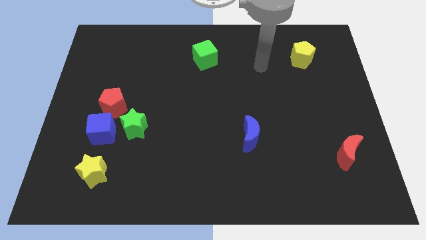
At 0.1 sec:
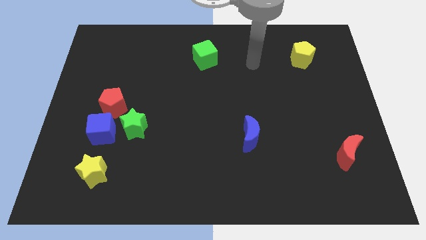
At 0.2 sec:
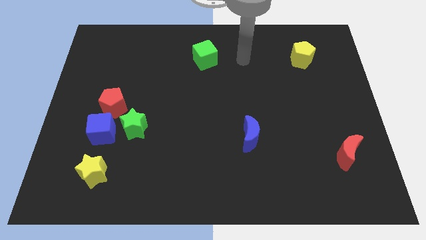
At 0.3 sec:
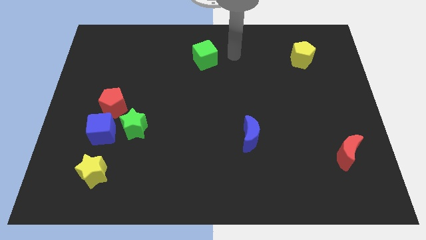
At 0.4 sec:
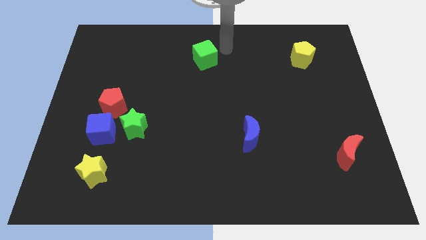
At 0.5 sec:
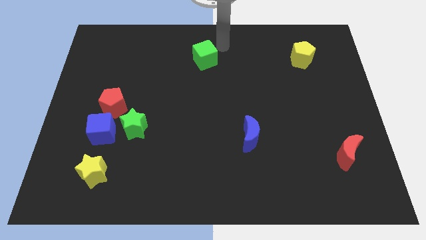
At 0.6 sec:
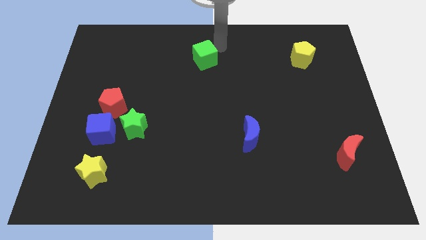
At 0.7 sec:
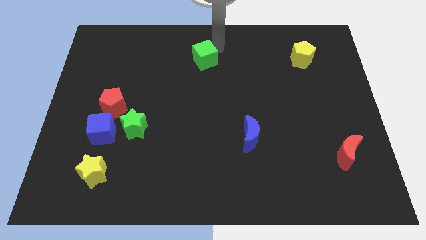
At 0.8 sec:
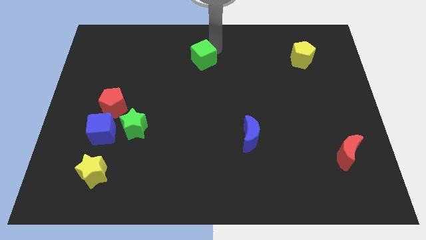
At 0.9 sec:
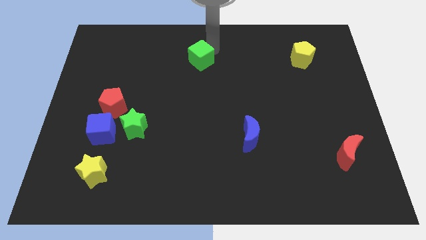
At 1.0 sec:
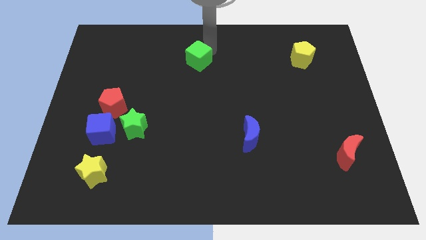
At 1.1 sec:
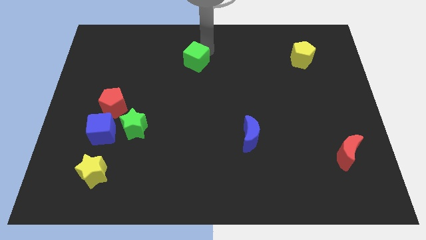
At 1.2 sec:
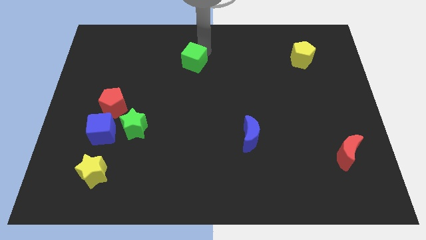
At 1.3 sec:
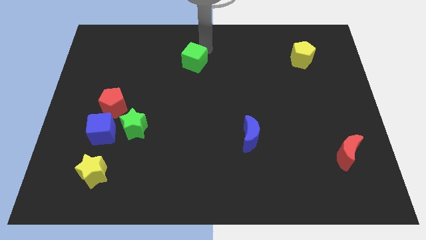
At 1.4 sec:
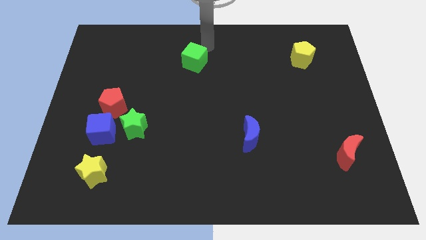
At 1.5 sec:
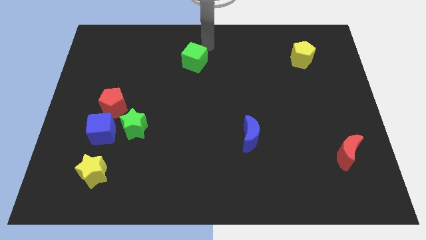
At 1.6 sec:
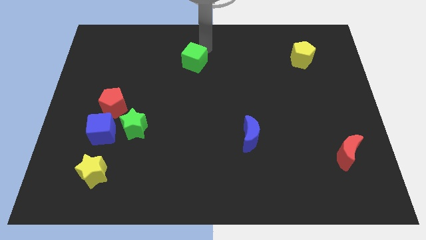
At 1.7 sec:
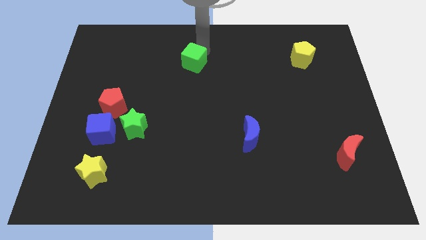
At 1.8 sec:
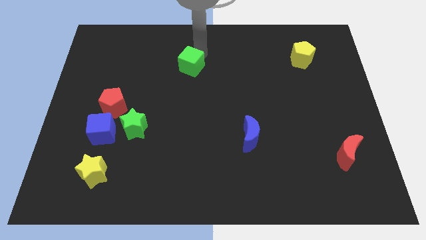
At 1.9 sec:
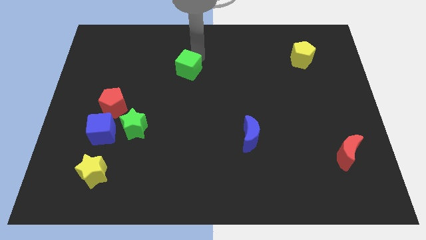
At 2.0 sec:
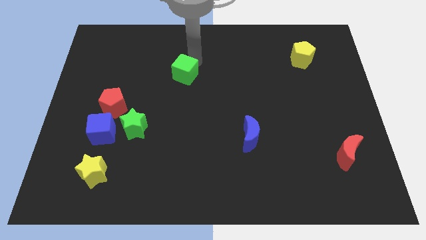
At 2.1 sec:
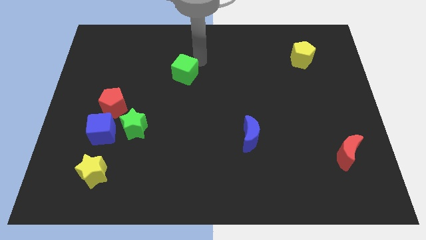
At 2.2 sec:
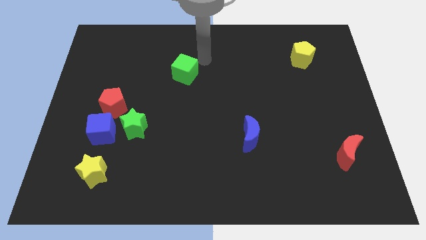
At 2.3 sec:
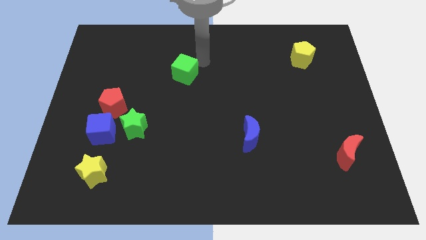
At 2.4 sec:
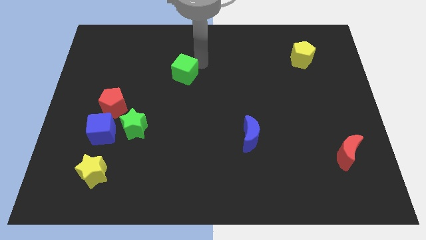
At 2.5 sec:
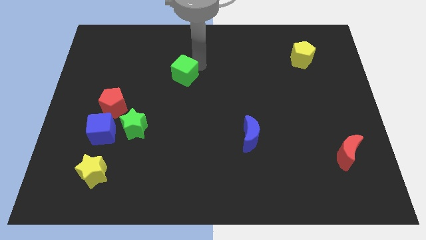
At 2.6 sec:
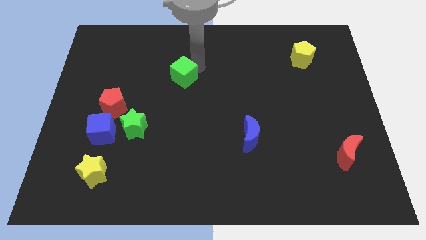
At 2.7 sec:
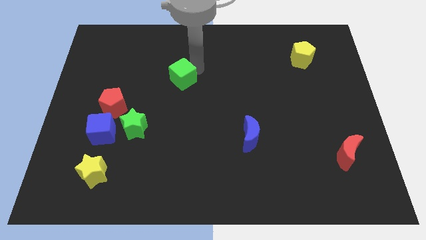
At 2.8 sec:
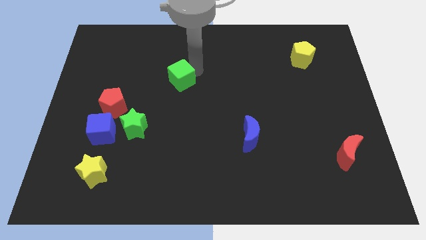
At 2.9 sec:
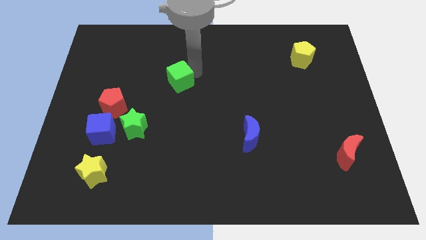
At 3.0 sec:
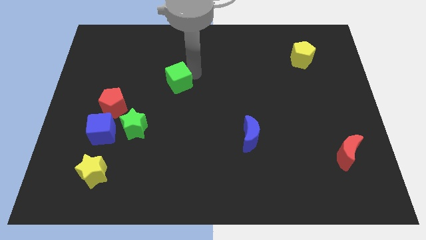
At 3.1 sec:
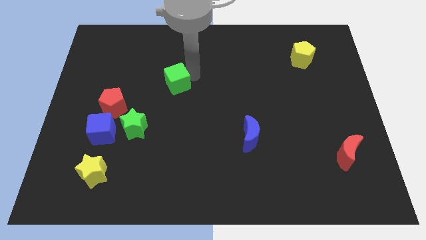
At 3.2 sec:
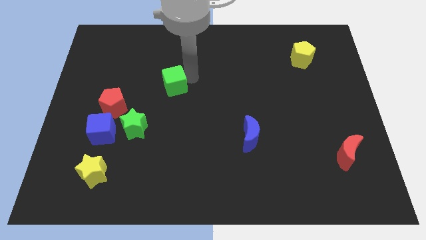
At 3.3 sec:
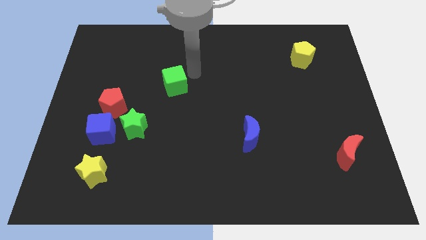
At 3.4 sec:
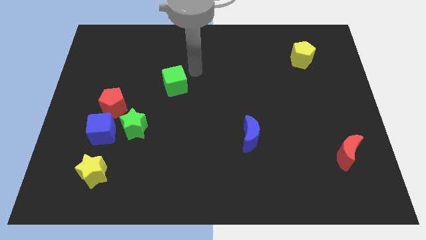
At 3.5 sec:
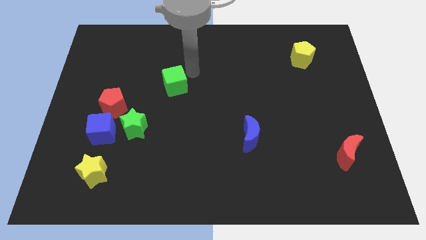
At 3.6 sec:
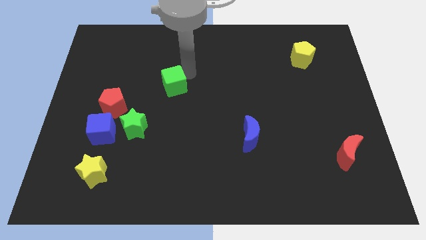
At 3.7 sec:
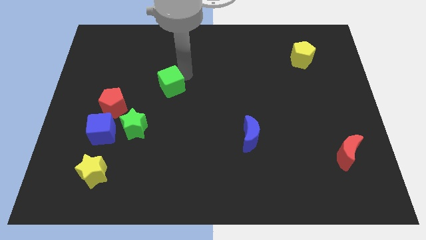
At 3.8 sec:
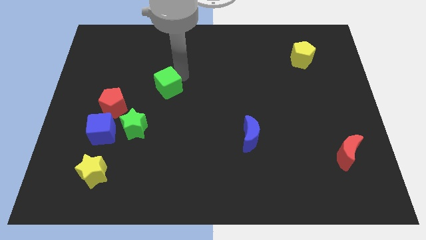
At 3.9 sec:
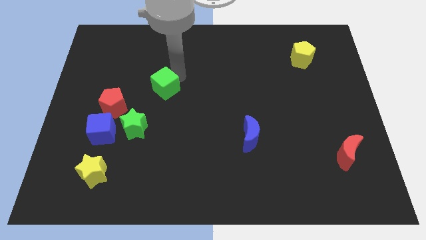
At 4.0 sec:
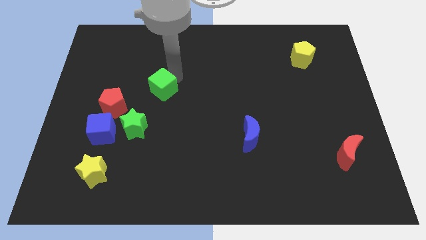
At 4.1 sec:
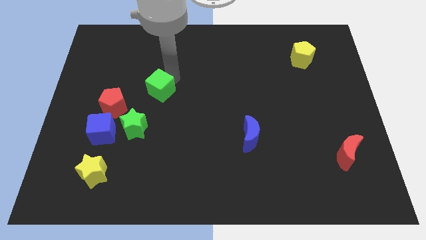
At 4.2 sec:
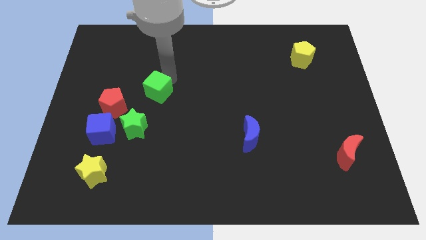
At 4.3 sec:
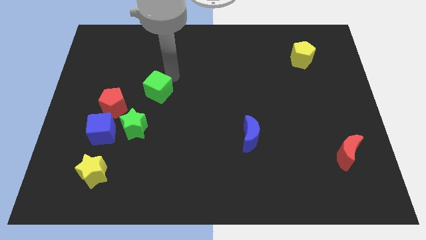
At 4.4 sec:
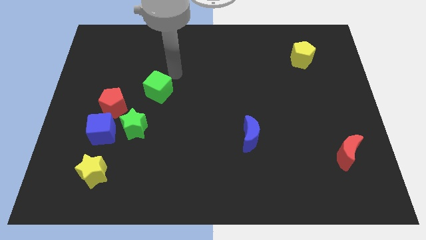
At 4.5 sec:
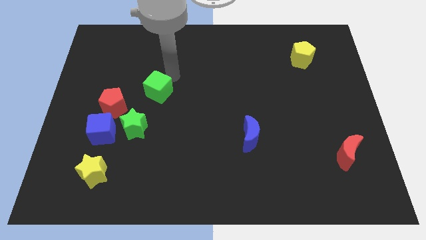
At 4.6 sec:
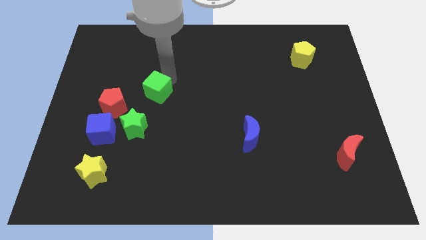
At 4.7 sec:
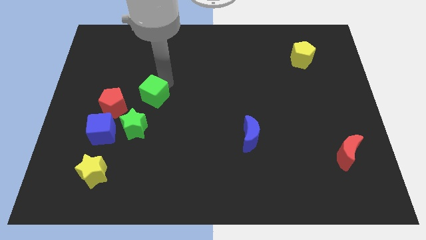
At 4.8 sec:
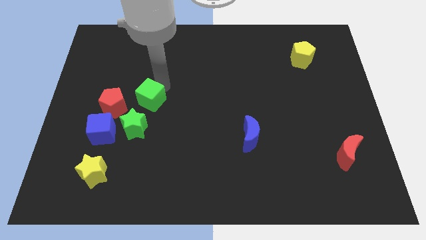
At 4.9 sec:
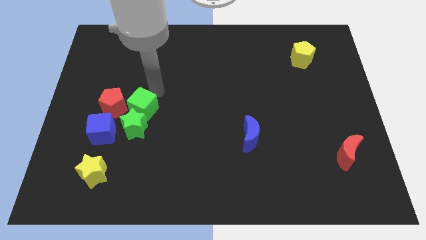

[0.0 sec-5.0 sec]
slide the green cube next to the green star

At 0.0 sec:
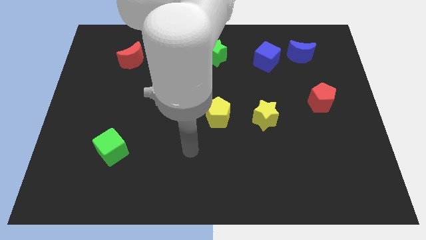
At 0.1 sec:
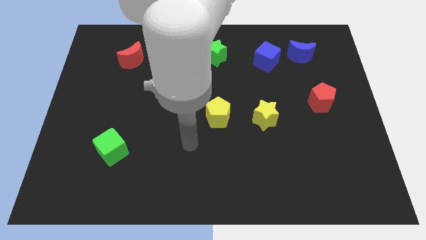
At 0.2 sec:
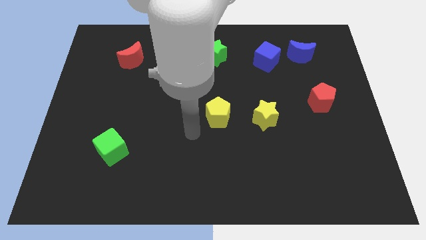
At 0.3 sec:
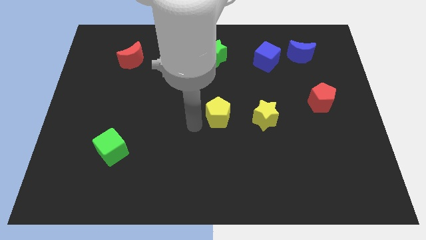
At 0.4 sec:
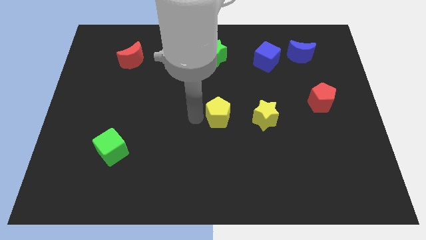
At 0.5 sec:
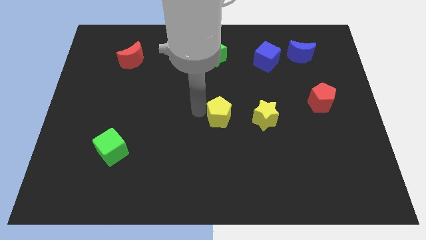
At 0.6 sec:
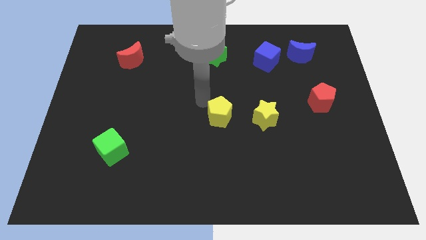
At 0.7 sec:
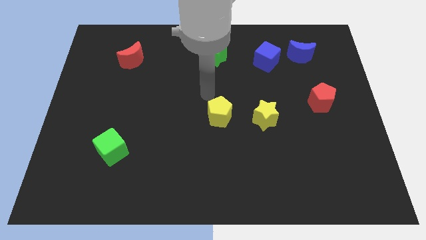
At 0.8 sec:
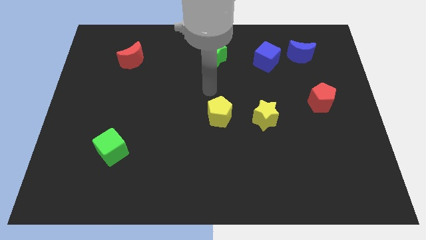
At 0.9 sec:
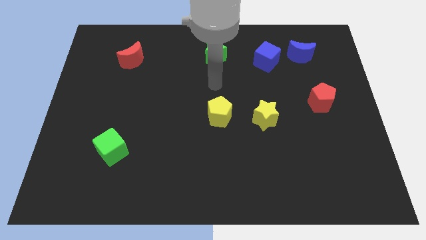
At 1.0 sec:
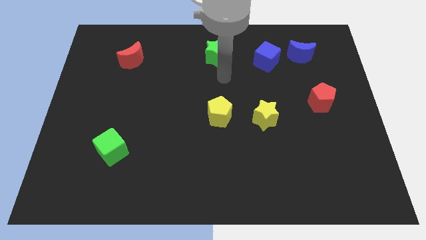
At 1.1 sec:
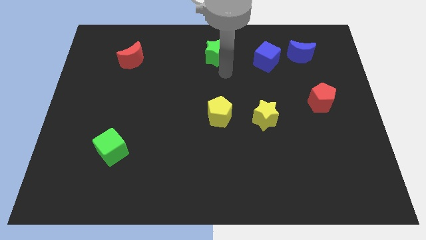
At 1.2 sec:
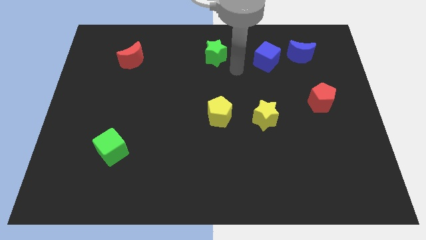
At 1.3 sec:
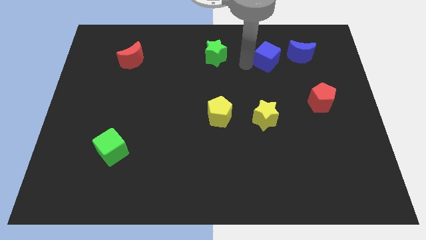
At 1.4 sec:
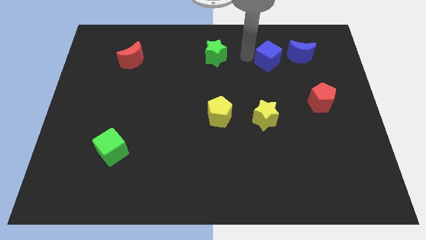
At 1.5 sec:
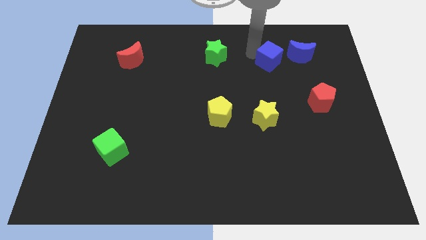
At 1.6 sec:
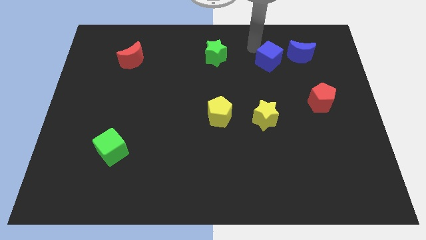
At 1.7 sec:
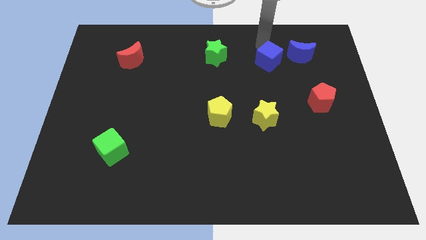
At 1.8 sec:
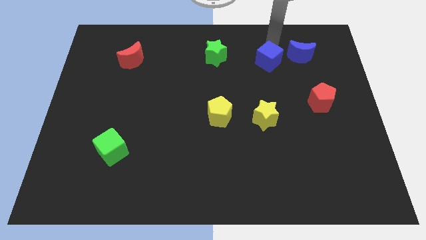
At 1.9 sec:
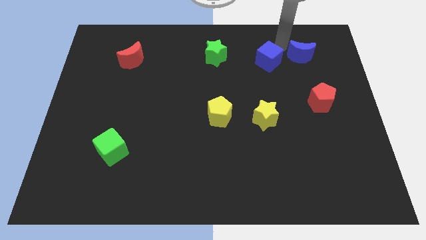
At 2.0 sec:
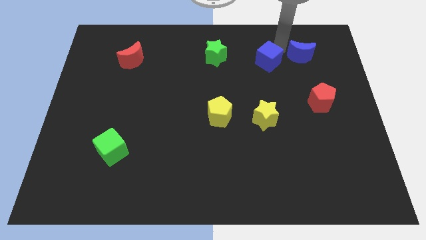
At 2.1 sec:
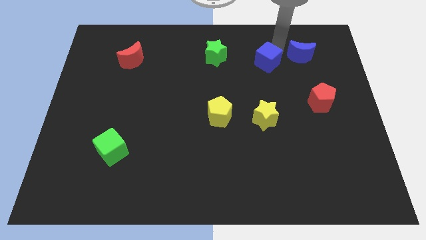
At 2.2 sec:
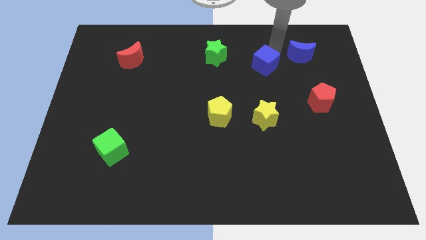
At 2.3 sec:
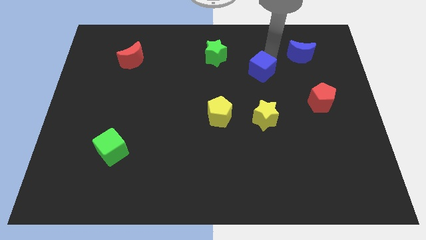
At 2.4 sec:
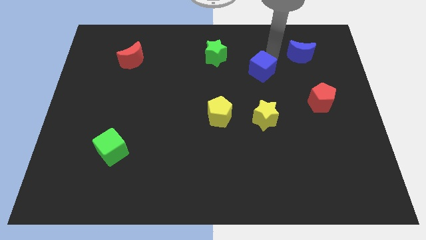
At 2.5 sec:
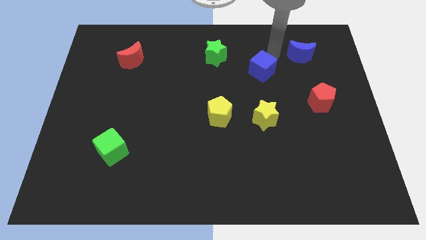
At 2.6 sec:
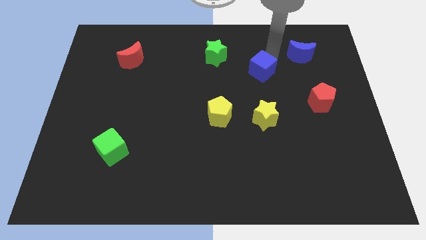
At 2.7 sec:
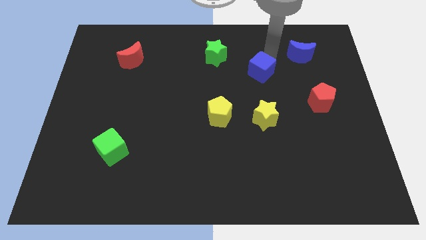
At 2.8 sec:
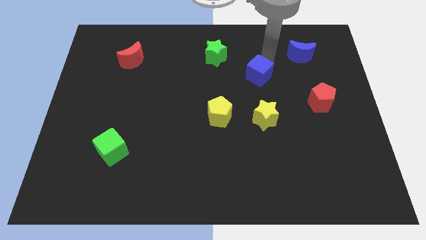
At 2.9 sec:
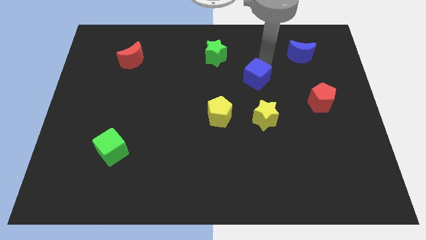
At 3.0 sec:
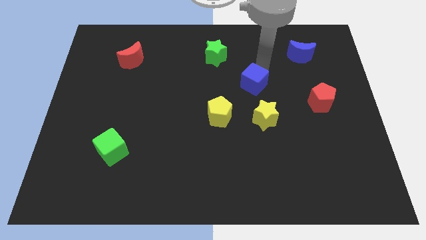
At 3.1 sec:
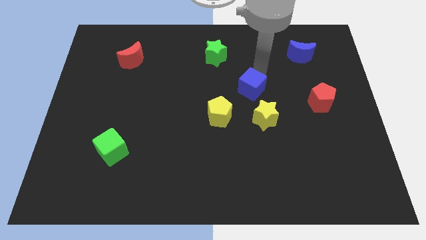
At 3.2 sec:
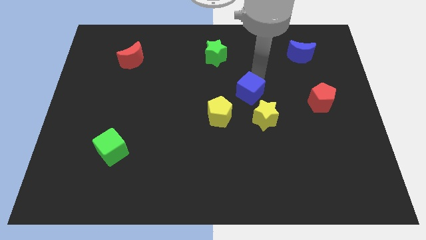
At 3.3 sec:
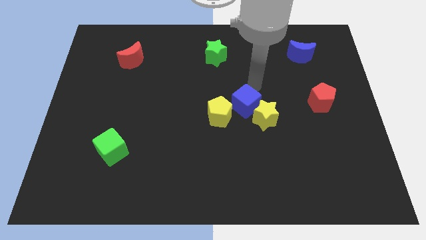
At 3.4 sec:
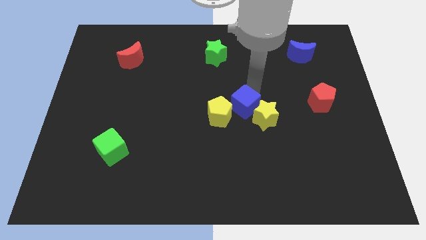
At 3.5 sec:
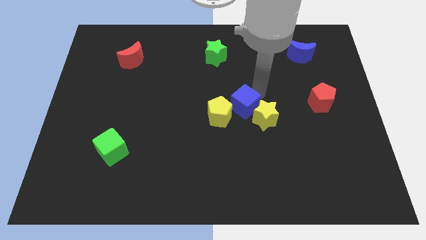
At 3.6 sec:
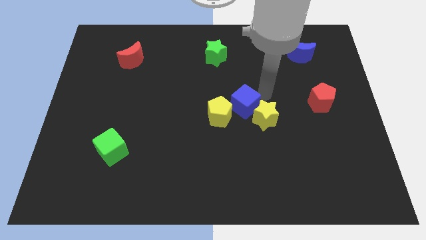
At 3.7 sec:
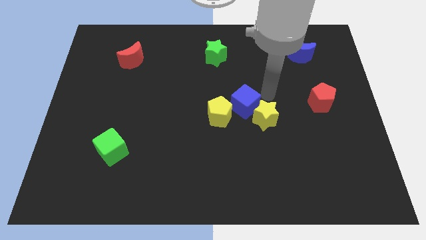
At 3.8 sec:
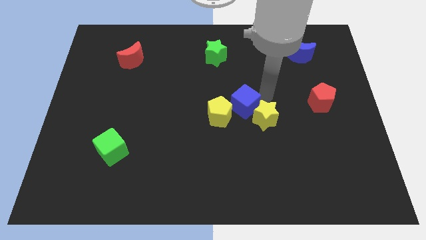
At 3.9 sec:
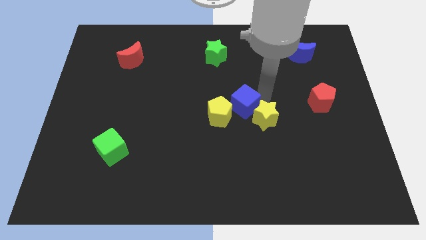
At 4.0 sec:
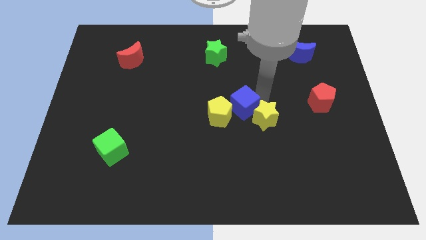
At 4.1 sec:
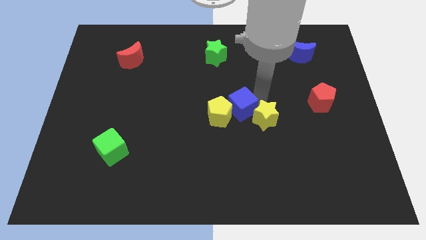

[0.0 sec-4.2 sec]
push the blue cube towards the yellow pentagon
